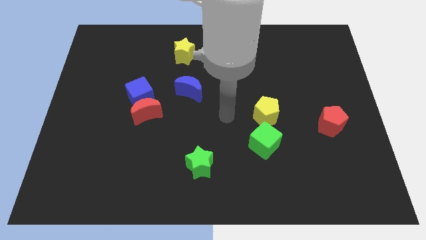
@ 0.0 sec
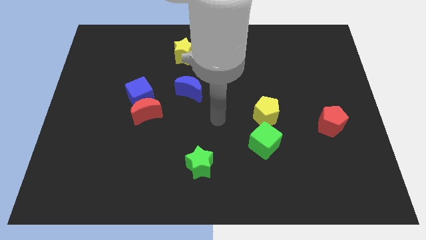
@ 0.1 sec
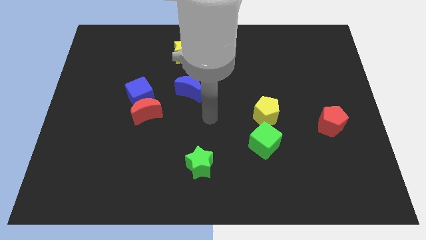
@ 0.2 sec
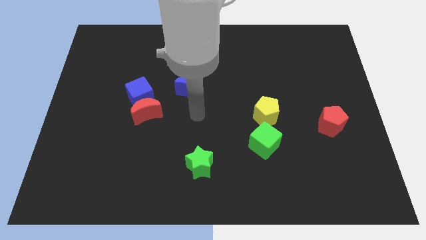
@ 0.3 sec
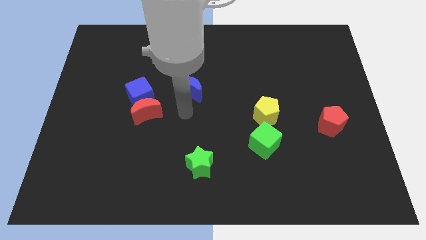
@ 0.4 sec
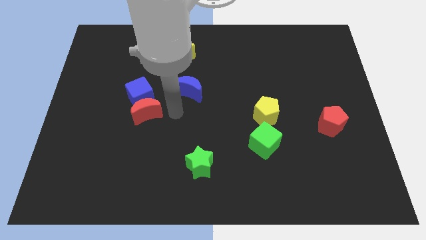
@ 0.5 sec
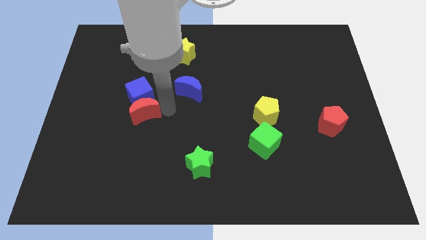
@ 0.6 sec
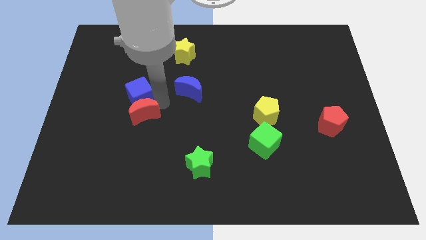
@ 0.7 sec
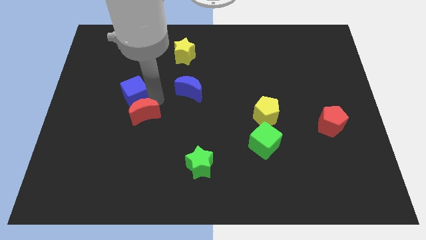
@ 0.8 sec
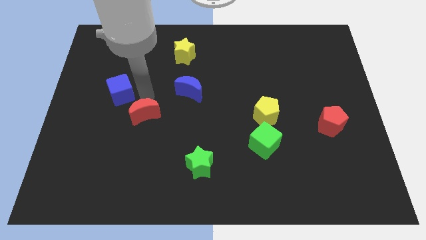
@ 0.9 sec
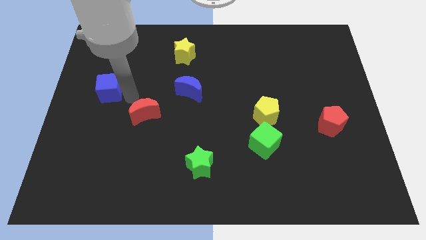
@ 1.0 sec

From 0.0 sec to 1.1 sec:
pull the red moon apart from the blue cube

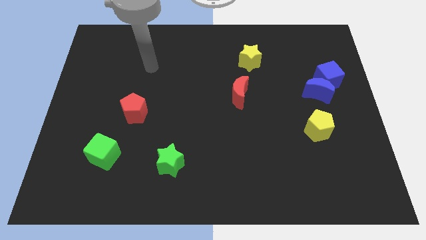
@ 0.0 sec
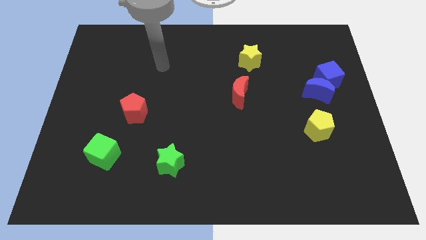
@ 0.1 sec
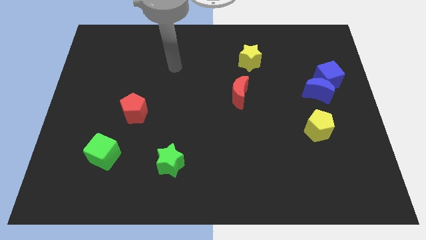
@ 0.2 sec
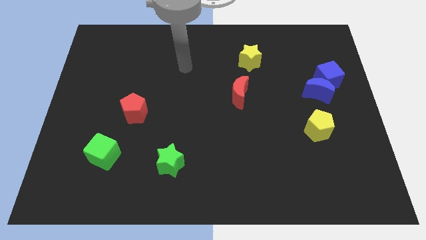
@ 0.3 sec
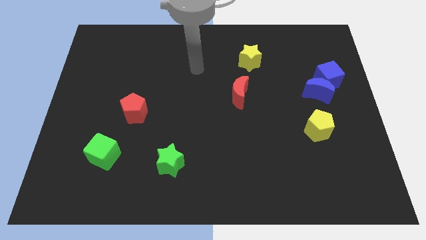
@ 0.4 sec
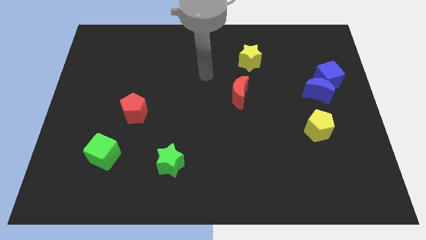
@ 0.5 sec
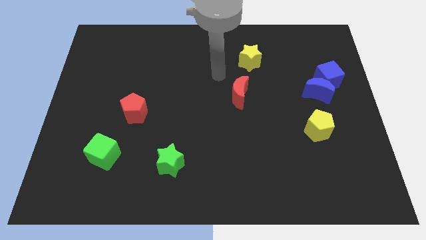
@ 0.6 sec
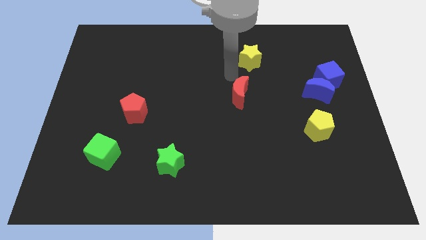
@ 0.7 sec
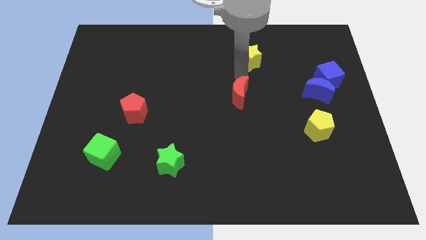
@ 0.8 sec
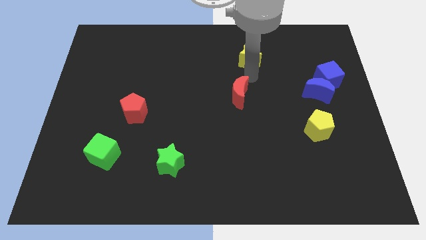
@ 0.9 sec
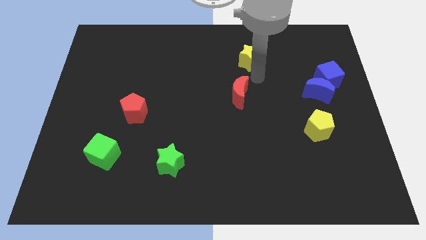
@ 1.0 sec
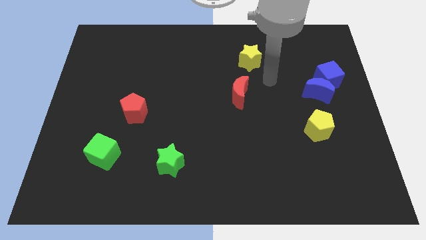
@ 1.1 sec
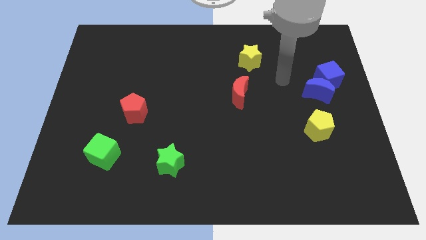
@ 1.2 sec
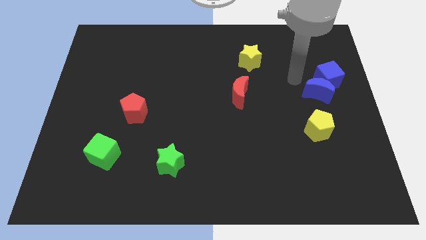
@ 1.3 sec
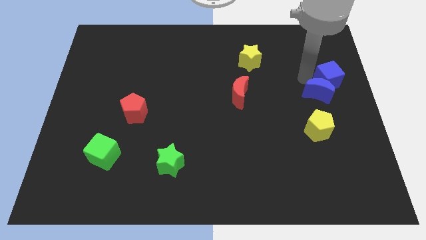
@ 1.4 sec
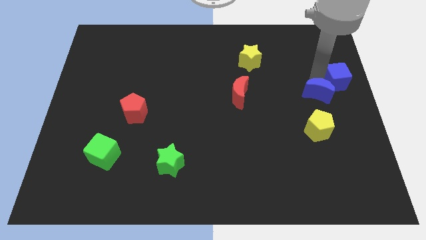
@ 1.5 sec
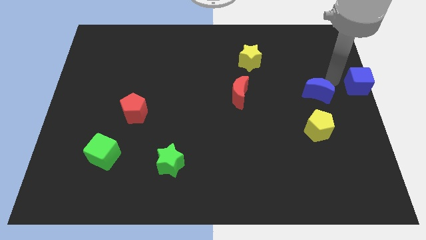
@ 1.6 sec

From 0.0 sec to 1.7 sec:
pull the blue moon apart from the blue cube

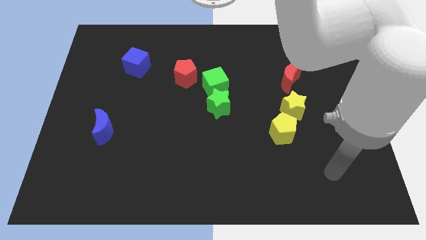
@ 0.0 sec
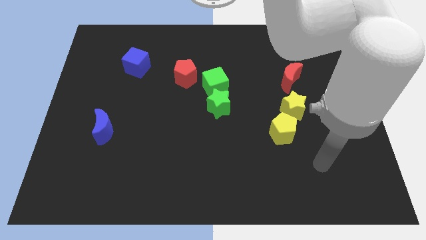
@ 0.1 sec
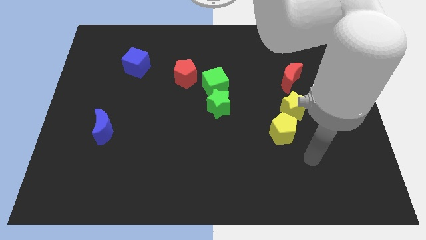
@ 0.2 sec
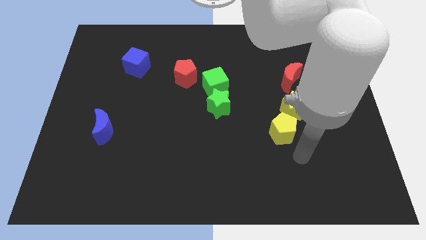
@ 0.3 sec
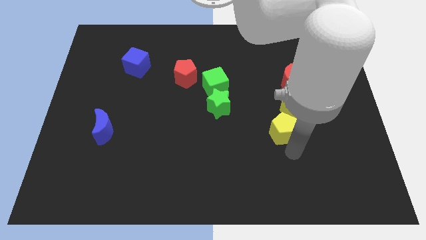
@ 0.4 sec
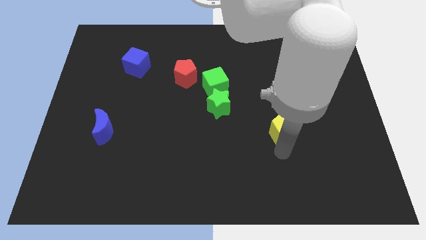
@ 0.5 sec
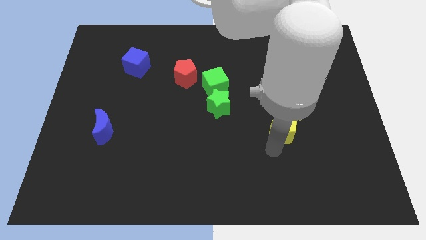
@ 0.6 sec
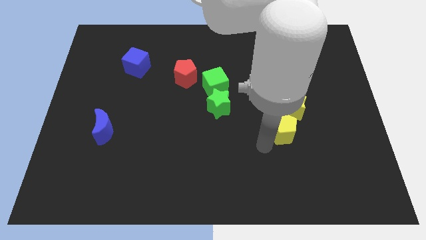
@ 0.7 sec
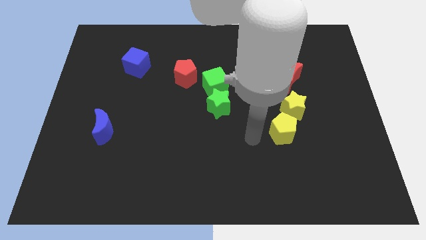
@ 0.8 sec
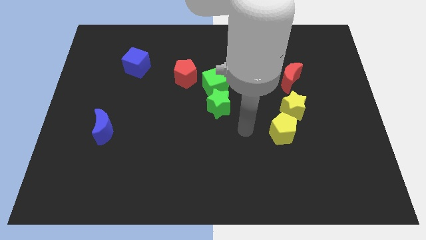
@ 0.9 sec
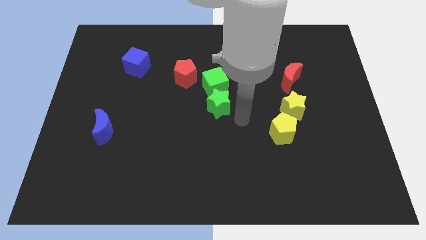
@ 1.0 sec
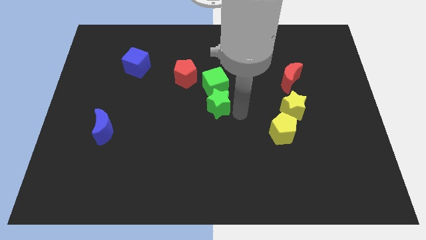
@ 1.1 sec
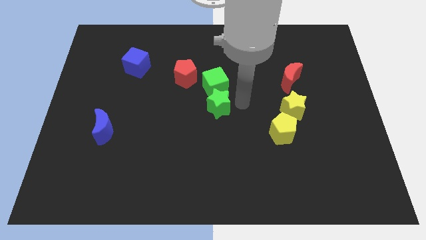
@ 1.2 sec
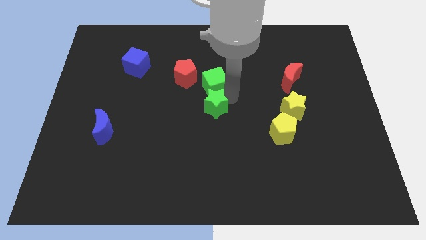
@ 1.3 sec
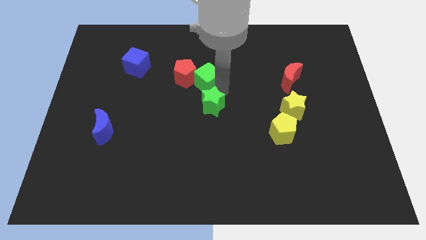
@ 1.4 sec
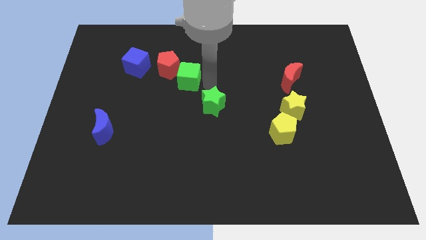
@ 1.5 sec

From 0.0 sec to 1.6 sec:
move the green star away from the green cube

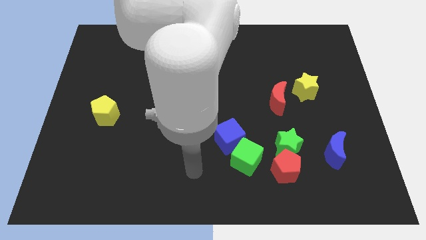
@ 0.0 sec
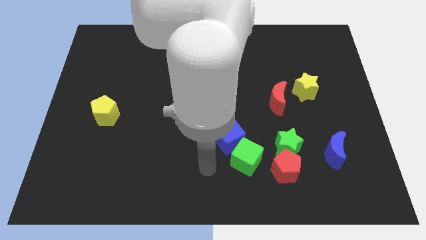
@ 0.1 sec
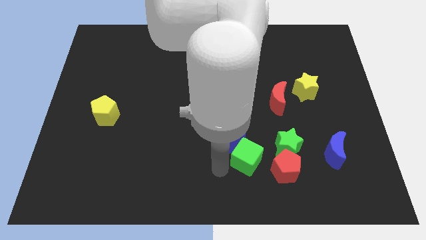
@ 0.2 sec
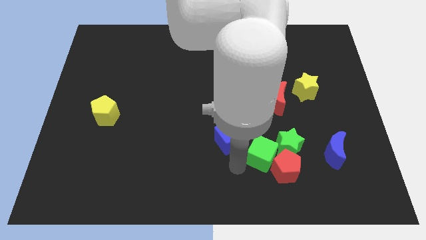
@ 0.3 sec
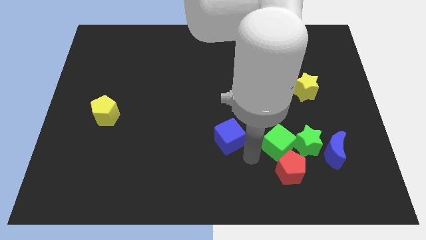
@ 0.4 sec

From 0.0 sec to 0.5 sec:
move the blue cube away from the green cube

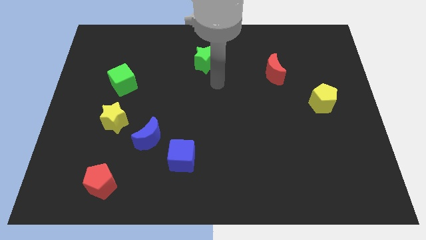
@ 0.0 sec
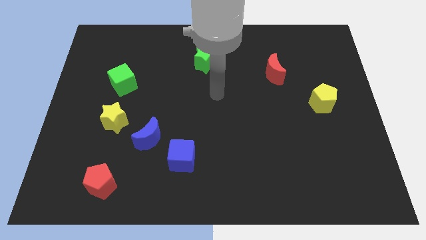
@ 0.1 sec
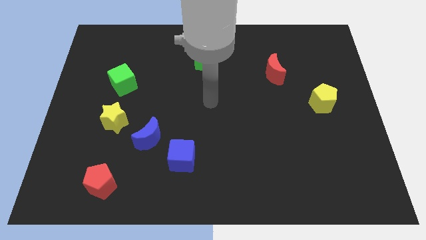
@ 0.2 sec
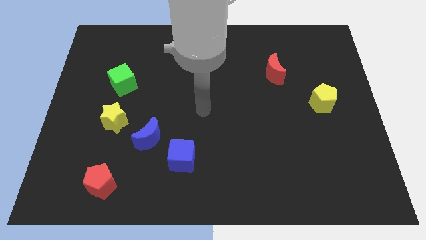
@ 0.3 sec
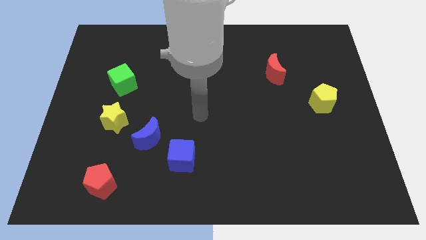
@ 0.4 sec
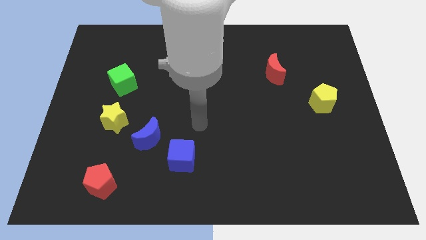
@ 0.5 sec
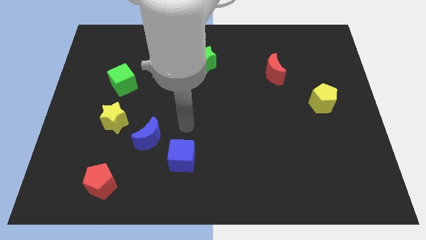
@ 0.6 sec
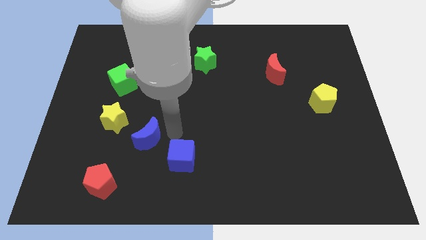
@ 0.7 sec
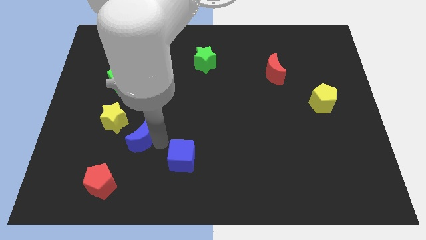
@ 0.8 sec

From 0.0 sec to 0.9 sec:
pull the blue cube apart from the blue moon

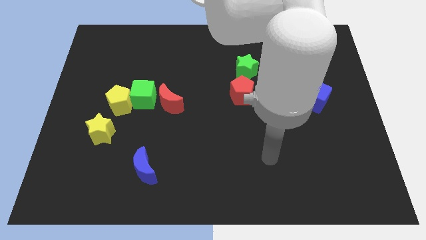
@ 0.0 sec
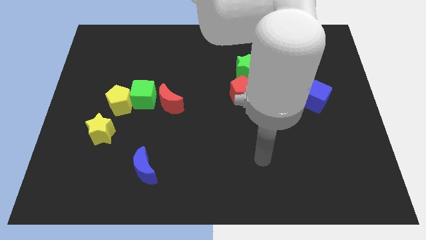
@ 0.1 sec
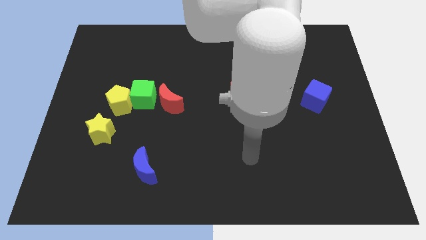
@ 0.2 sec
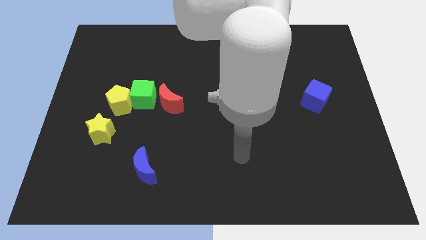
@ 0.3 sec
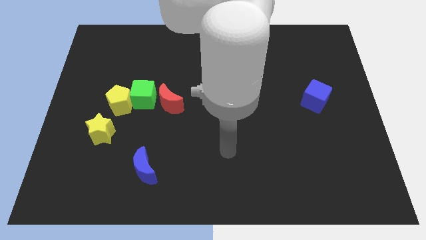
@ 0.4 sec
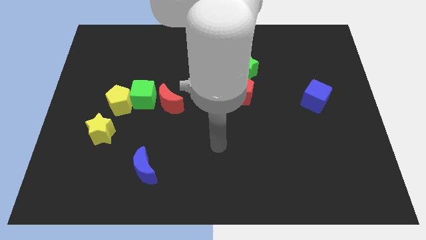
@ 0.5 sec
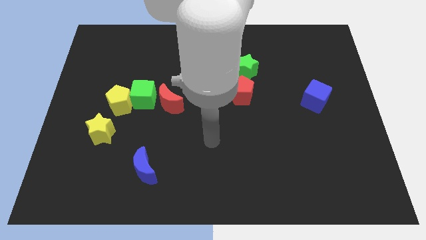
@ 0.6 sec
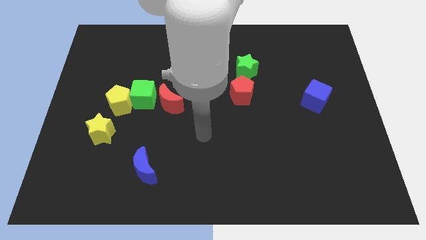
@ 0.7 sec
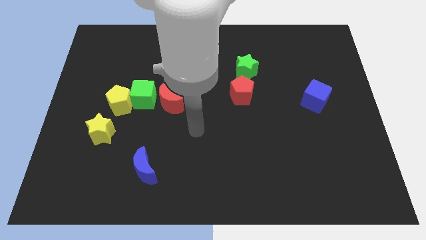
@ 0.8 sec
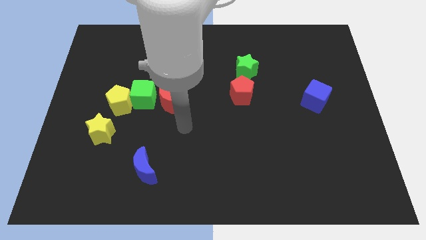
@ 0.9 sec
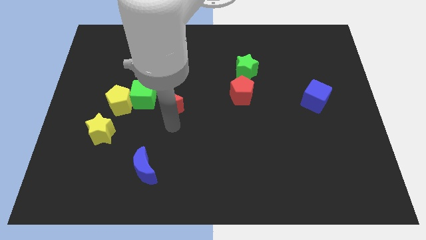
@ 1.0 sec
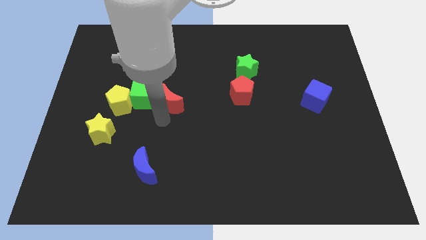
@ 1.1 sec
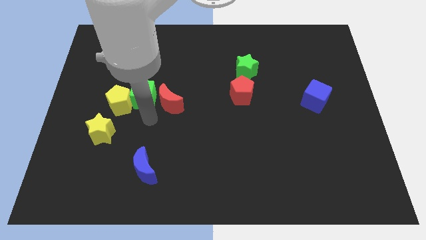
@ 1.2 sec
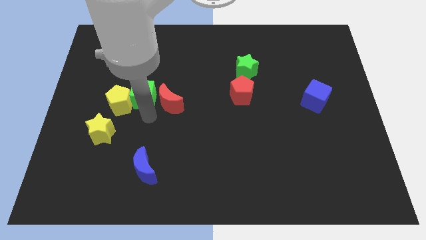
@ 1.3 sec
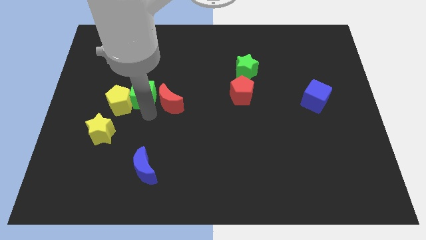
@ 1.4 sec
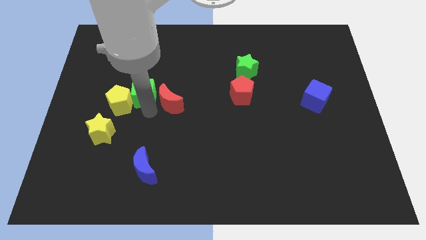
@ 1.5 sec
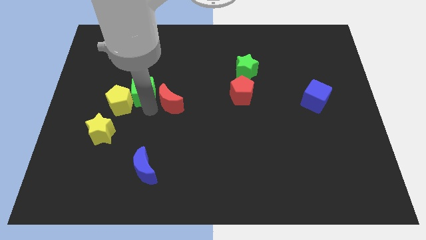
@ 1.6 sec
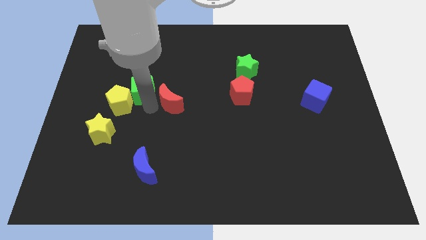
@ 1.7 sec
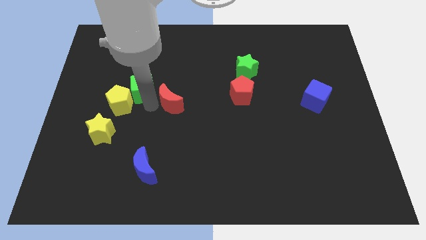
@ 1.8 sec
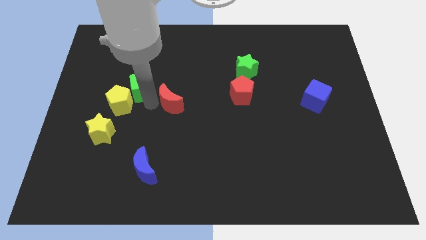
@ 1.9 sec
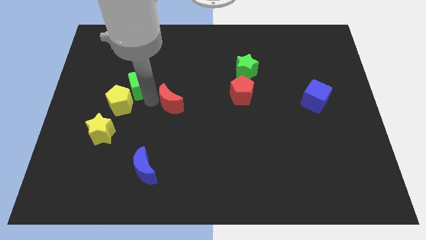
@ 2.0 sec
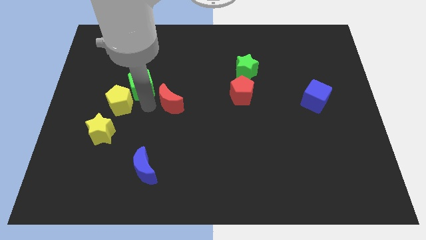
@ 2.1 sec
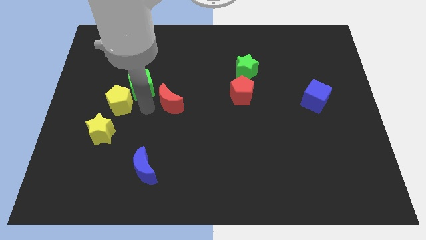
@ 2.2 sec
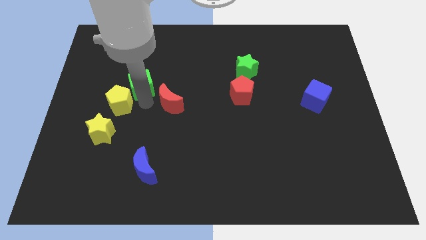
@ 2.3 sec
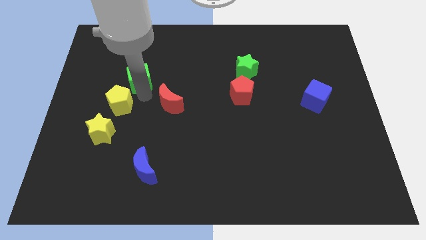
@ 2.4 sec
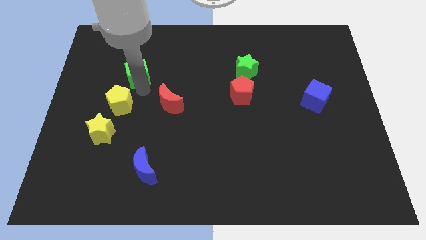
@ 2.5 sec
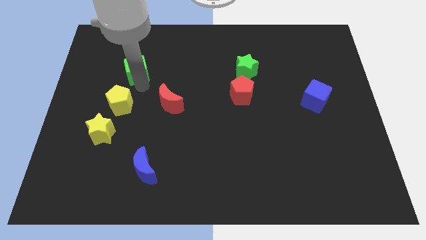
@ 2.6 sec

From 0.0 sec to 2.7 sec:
separate the green cube from the yellow pentagon and red moon

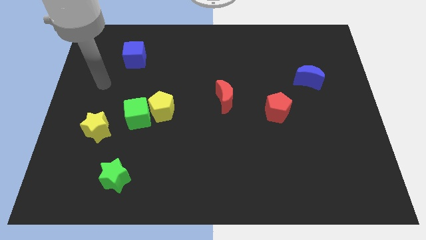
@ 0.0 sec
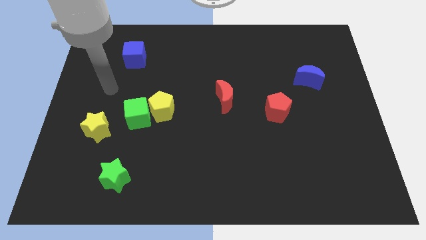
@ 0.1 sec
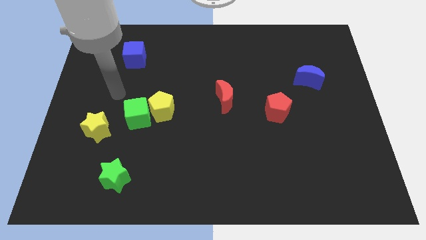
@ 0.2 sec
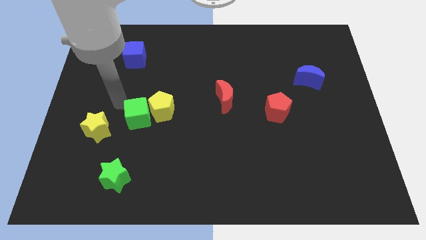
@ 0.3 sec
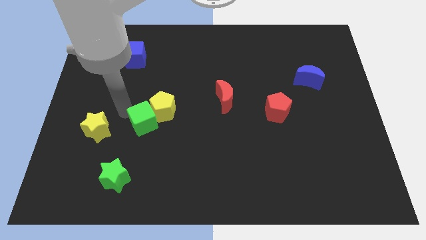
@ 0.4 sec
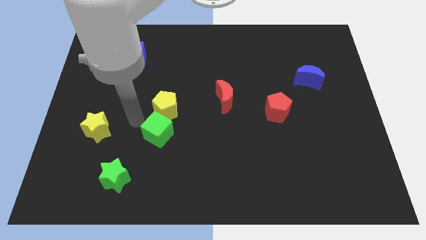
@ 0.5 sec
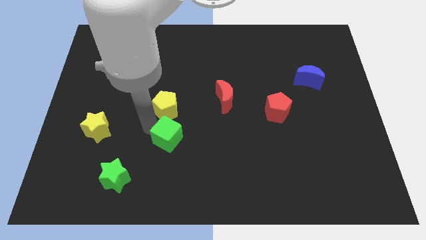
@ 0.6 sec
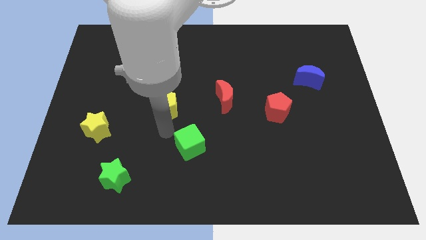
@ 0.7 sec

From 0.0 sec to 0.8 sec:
separate the yellow pentagon from the green cube
